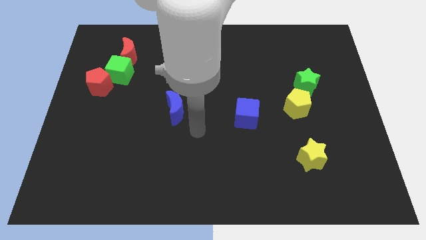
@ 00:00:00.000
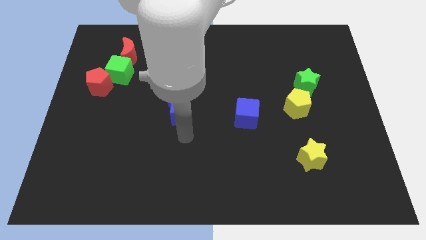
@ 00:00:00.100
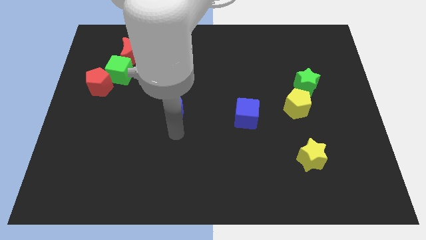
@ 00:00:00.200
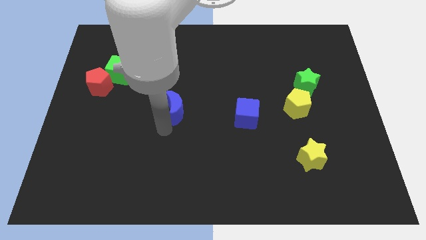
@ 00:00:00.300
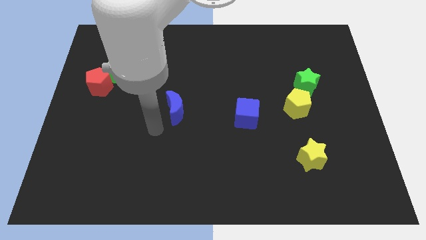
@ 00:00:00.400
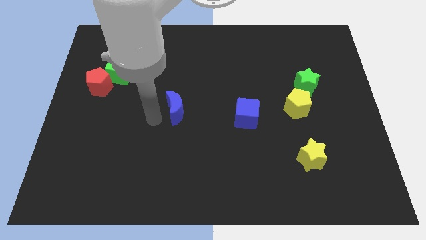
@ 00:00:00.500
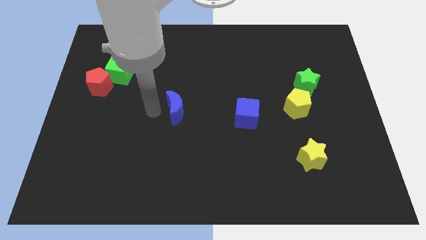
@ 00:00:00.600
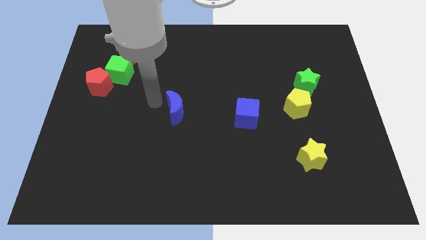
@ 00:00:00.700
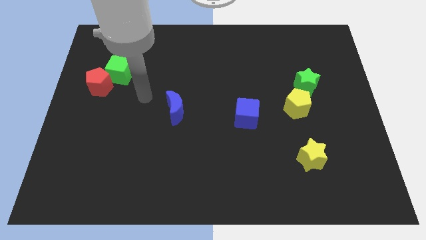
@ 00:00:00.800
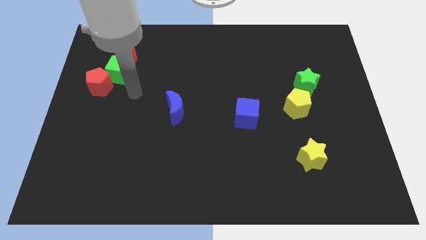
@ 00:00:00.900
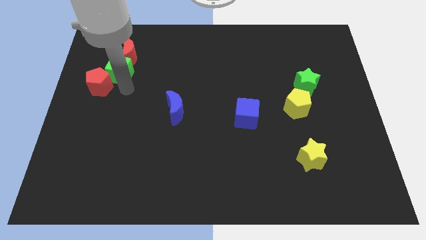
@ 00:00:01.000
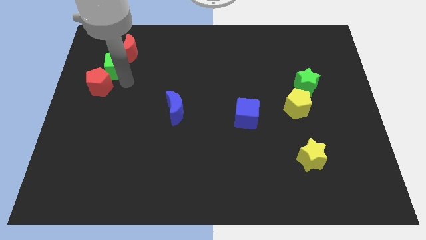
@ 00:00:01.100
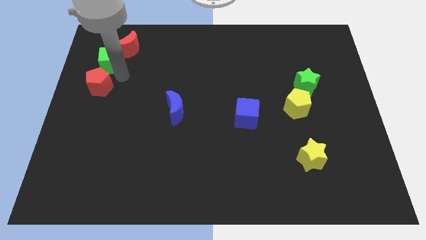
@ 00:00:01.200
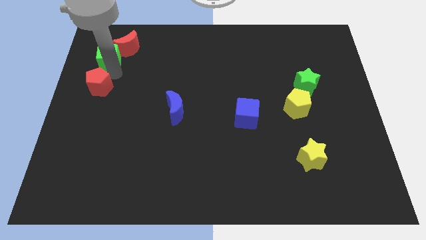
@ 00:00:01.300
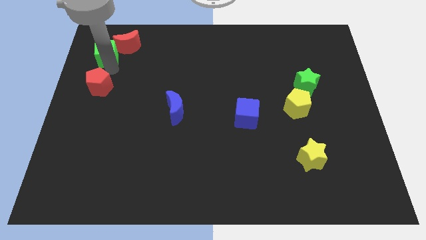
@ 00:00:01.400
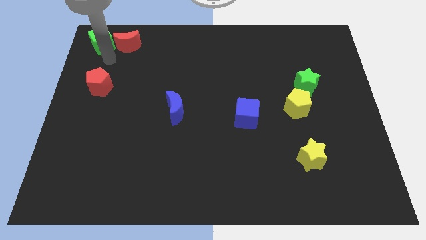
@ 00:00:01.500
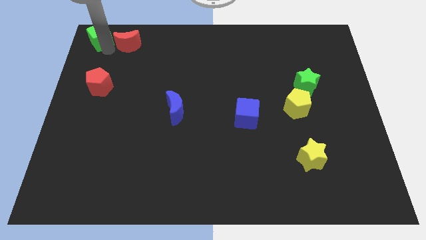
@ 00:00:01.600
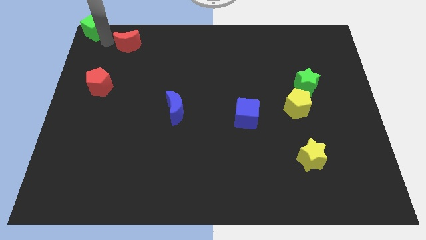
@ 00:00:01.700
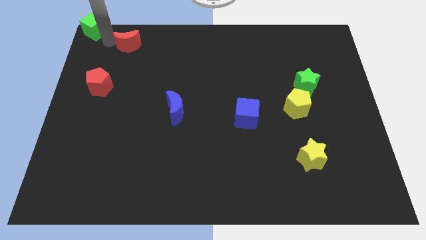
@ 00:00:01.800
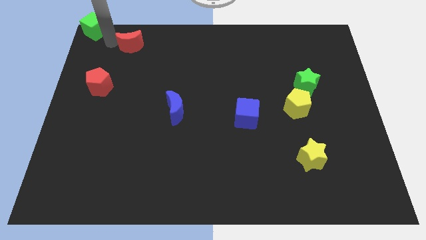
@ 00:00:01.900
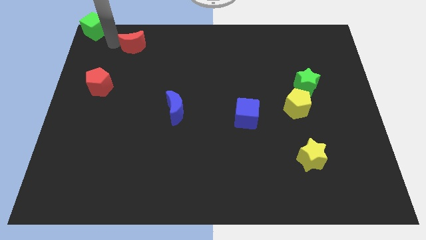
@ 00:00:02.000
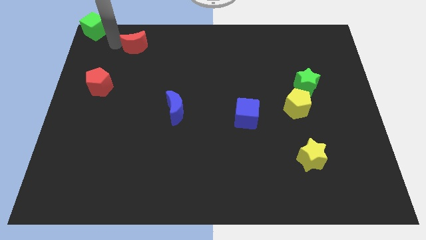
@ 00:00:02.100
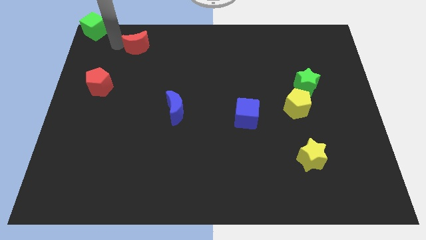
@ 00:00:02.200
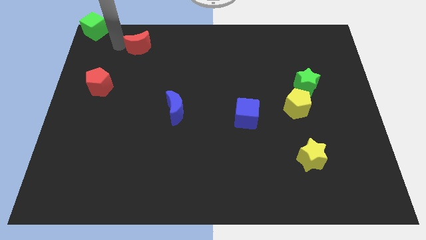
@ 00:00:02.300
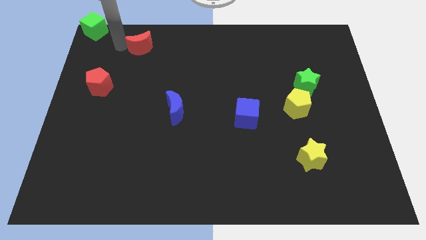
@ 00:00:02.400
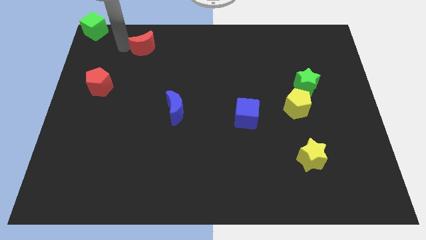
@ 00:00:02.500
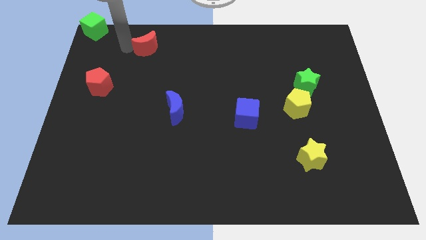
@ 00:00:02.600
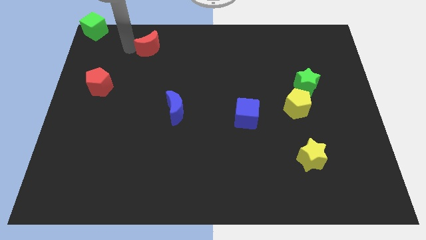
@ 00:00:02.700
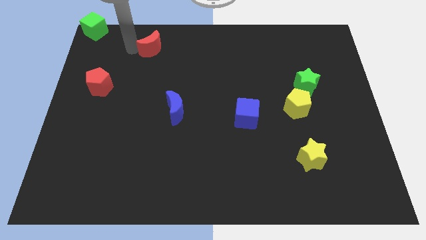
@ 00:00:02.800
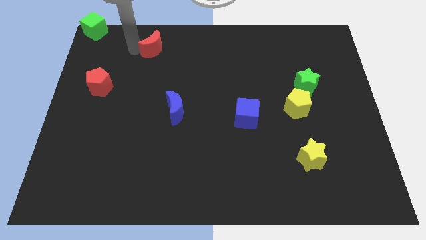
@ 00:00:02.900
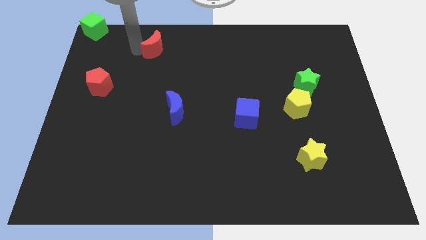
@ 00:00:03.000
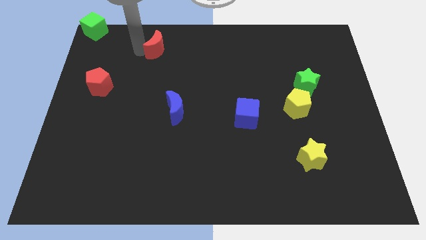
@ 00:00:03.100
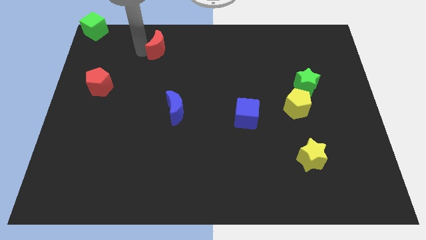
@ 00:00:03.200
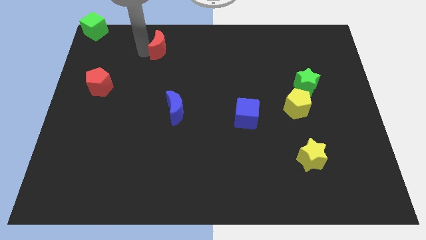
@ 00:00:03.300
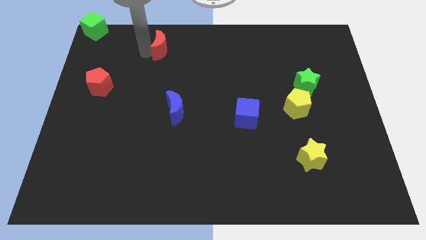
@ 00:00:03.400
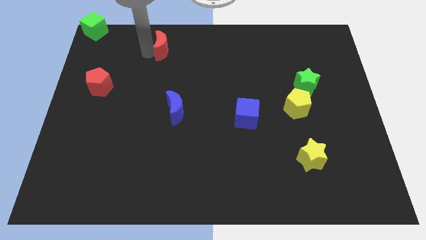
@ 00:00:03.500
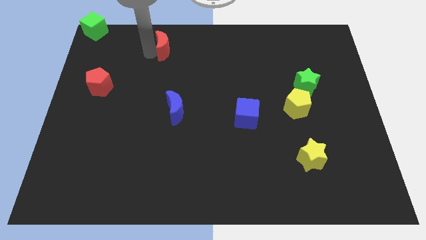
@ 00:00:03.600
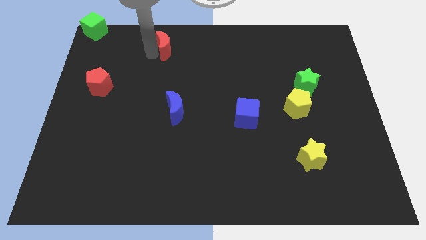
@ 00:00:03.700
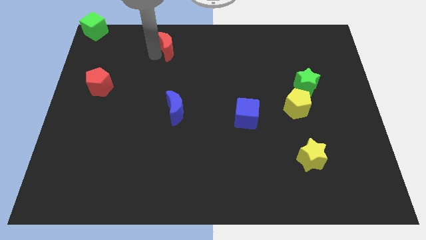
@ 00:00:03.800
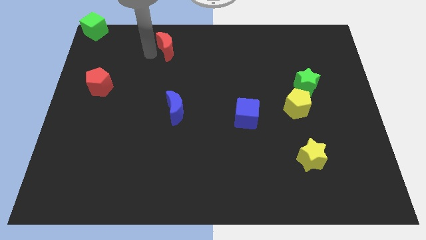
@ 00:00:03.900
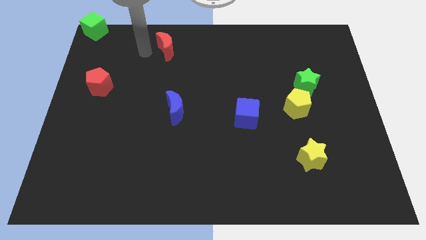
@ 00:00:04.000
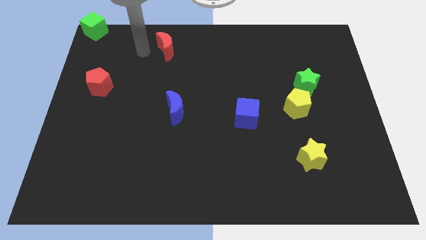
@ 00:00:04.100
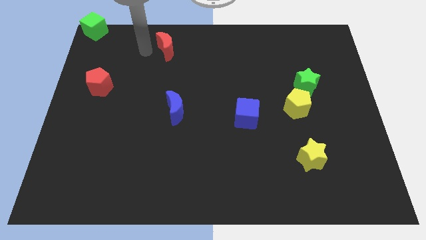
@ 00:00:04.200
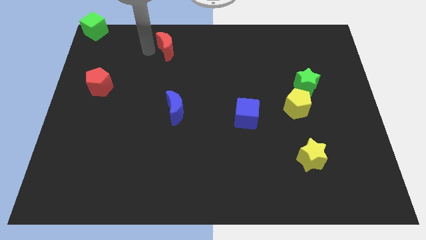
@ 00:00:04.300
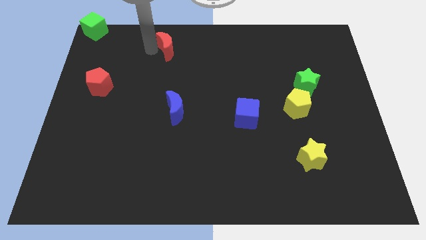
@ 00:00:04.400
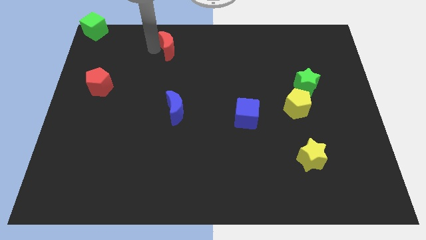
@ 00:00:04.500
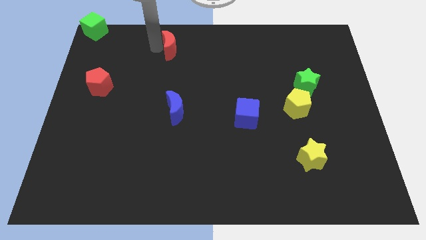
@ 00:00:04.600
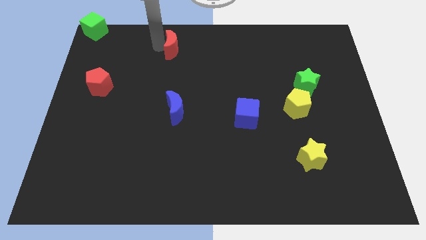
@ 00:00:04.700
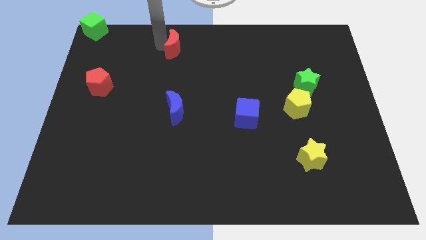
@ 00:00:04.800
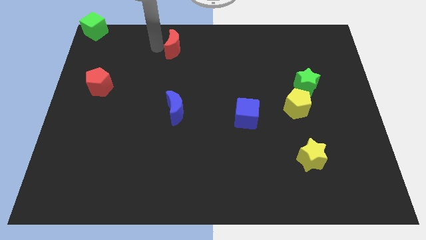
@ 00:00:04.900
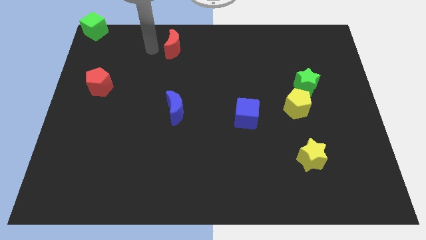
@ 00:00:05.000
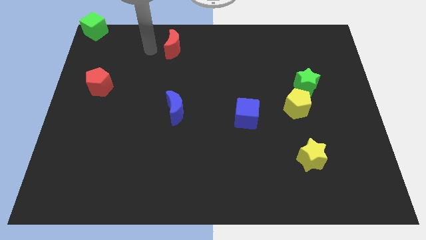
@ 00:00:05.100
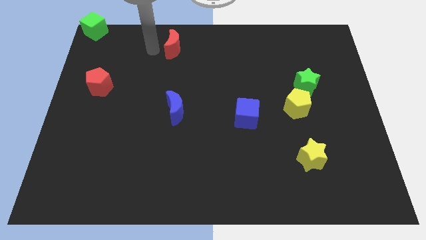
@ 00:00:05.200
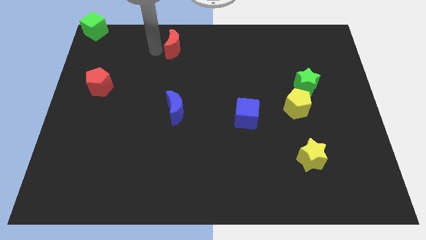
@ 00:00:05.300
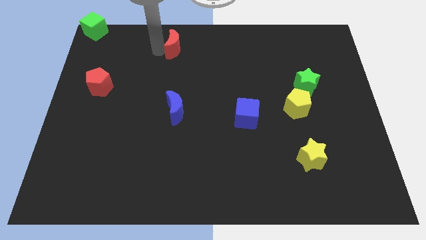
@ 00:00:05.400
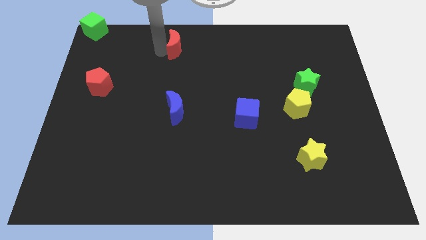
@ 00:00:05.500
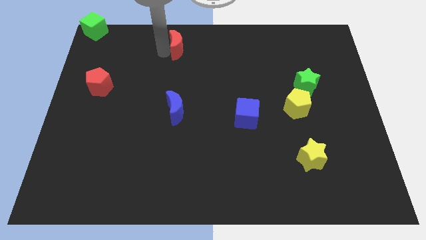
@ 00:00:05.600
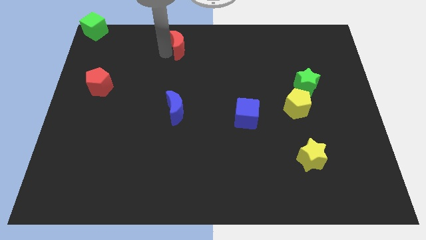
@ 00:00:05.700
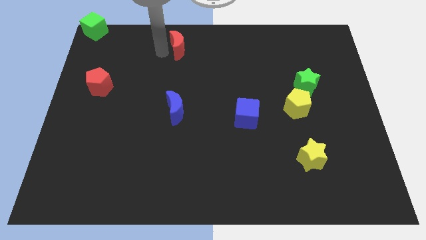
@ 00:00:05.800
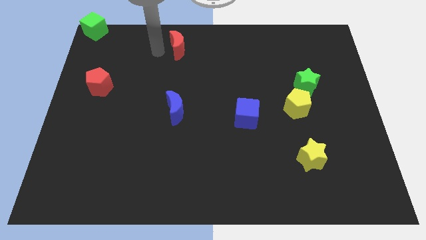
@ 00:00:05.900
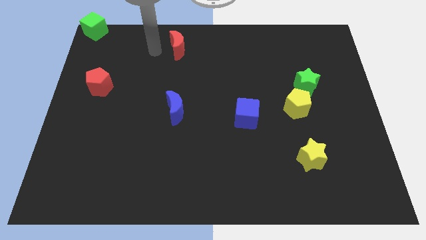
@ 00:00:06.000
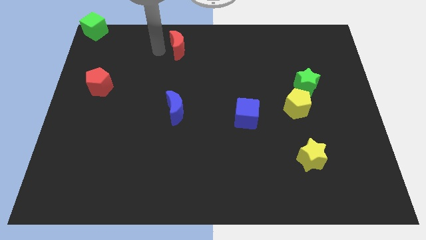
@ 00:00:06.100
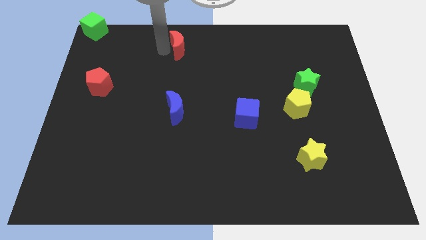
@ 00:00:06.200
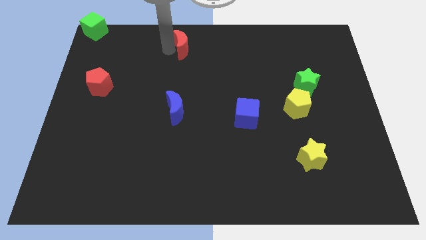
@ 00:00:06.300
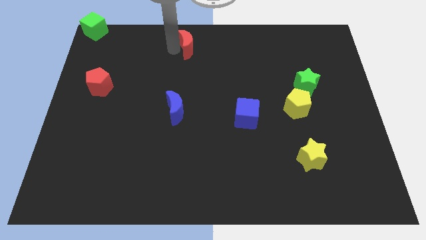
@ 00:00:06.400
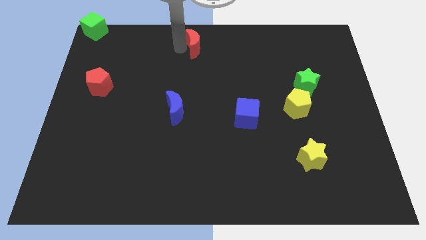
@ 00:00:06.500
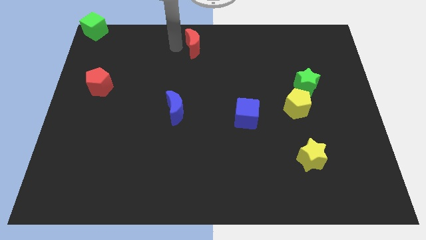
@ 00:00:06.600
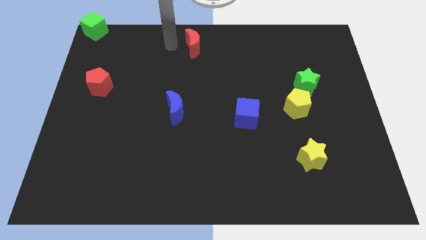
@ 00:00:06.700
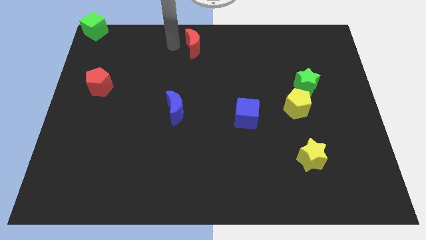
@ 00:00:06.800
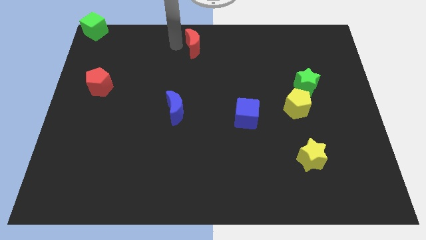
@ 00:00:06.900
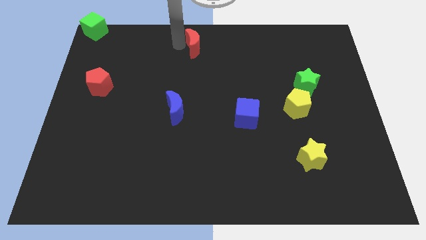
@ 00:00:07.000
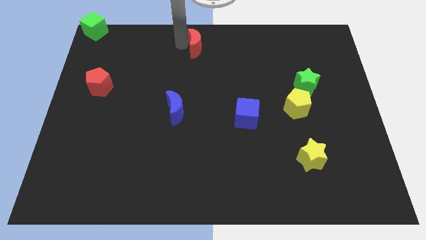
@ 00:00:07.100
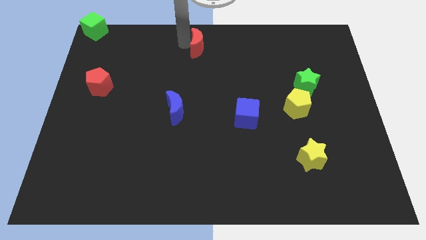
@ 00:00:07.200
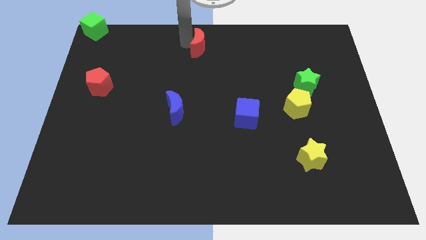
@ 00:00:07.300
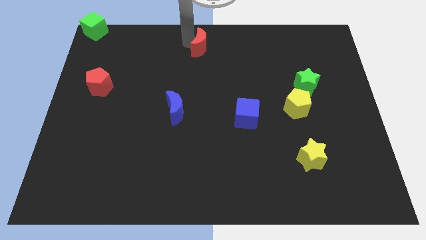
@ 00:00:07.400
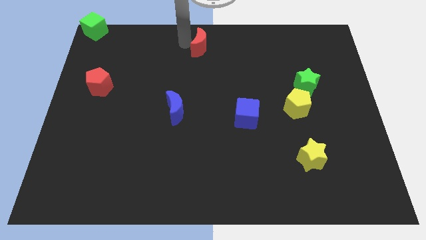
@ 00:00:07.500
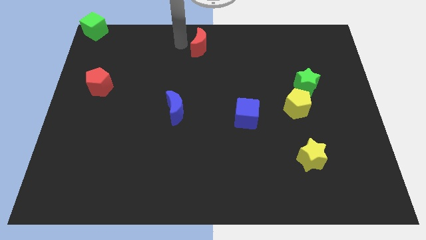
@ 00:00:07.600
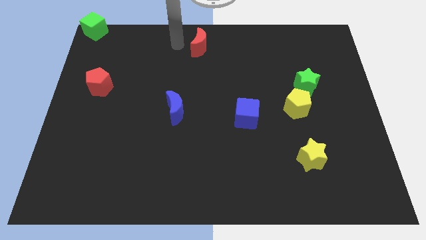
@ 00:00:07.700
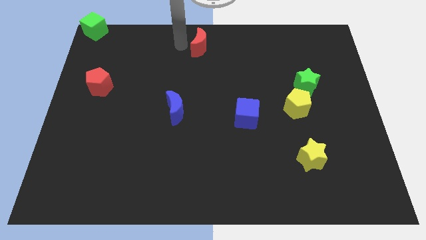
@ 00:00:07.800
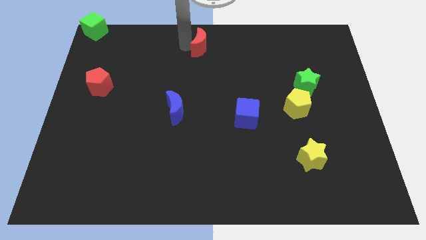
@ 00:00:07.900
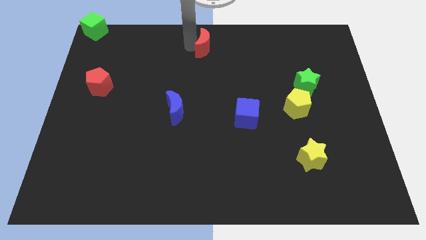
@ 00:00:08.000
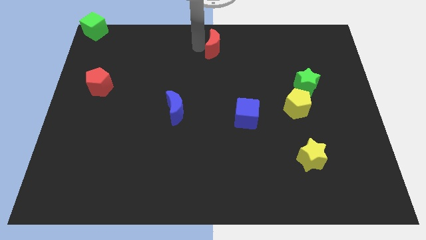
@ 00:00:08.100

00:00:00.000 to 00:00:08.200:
move the red moon to the right
